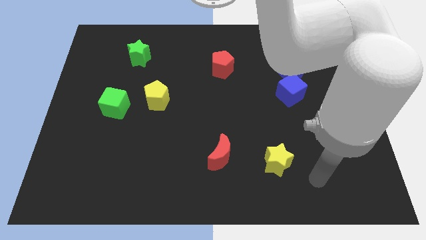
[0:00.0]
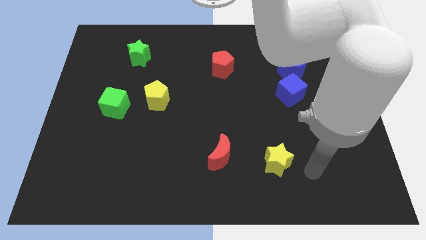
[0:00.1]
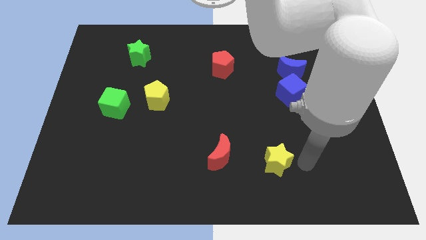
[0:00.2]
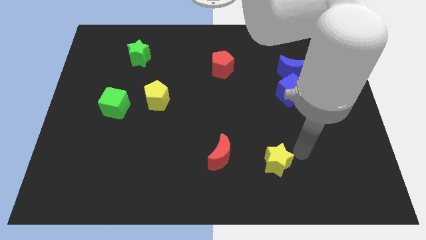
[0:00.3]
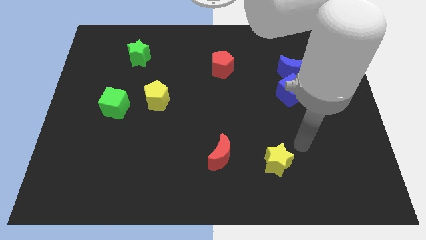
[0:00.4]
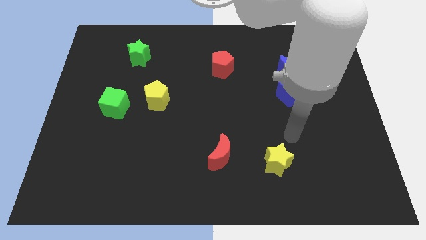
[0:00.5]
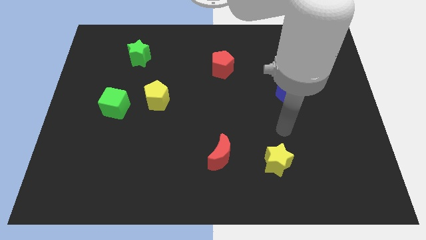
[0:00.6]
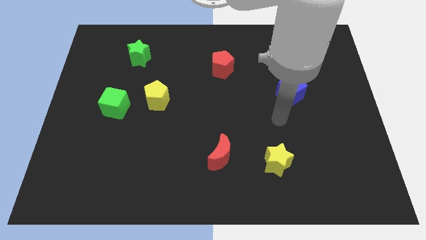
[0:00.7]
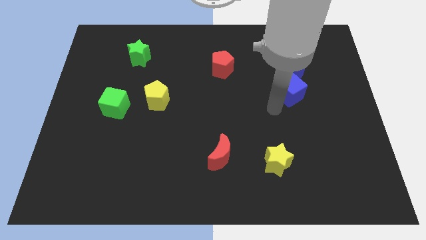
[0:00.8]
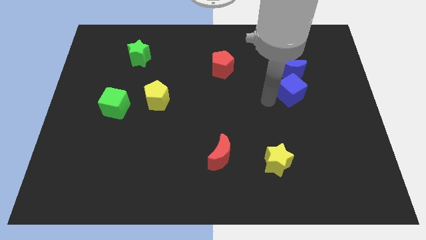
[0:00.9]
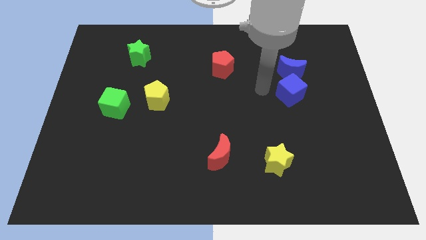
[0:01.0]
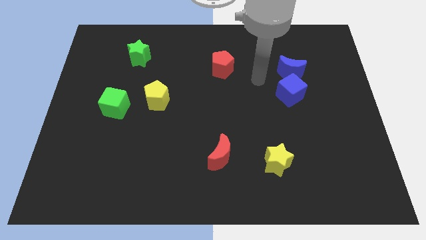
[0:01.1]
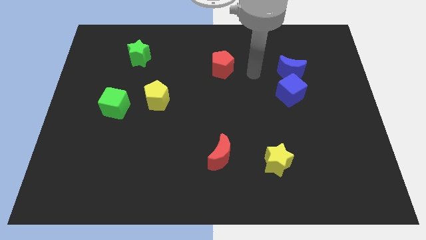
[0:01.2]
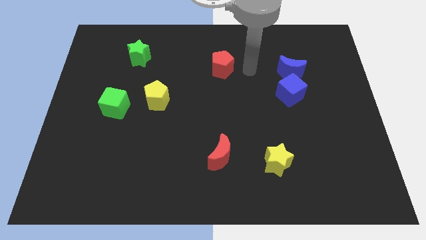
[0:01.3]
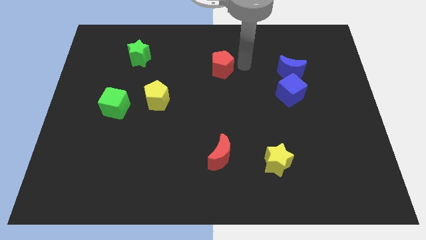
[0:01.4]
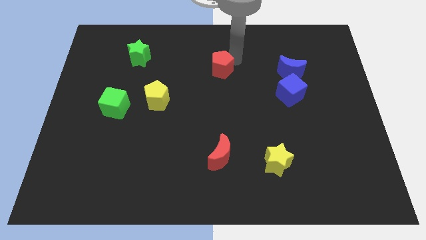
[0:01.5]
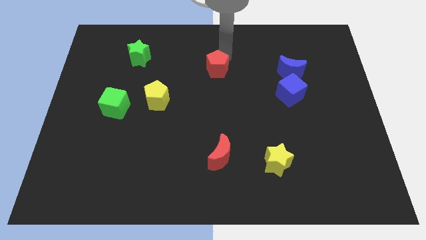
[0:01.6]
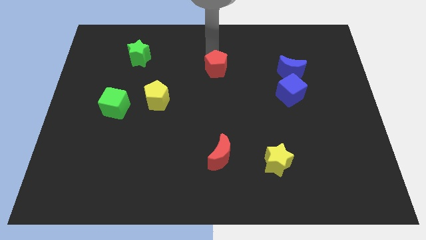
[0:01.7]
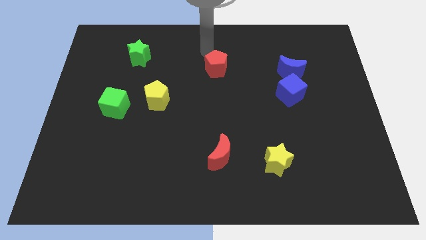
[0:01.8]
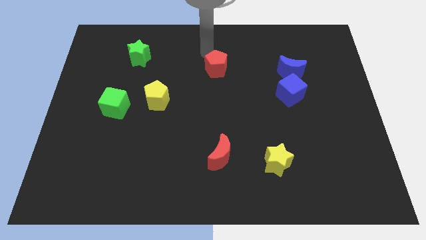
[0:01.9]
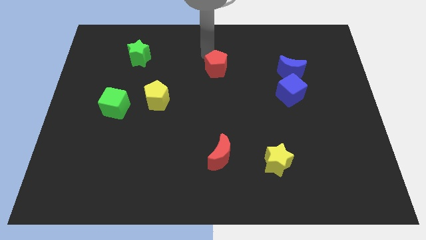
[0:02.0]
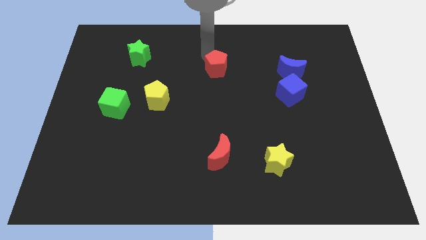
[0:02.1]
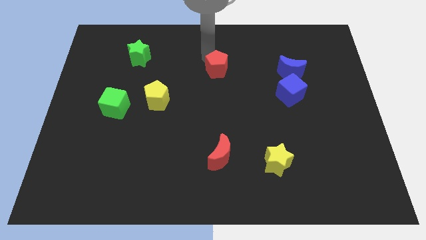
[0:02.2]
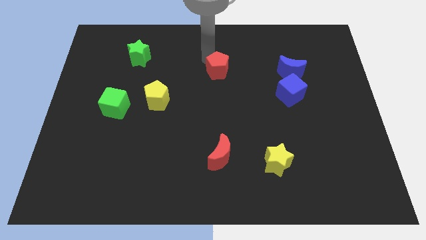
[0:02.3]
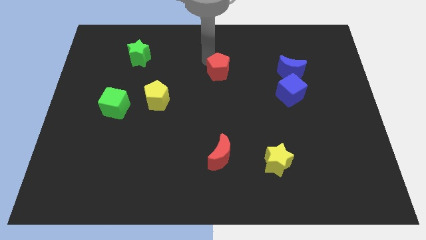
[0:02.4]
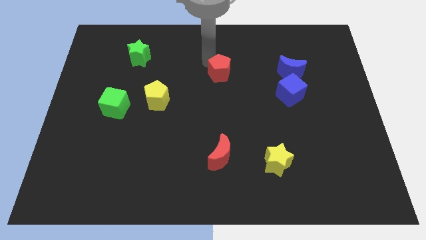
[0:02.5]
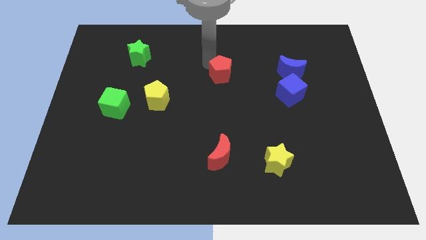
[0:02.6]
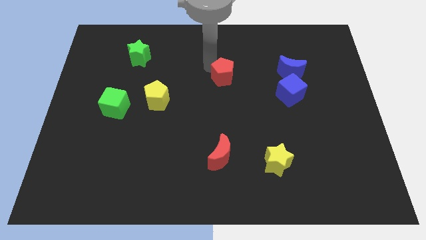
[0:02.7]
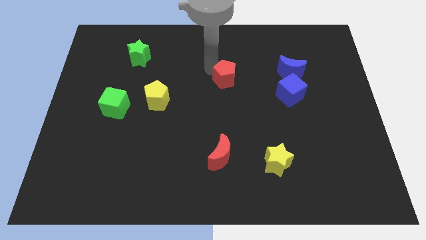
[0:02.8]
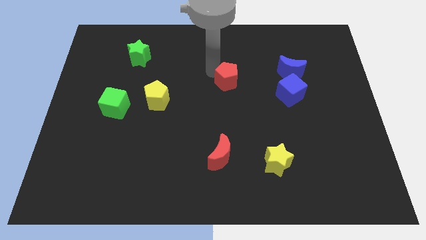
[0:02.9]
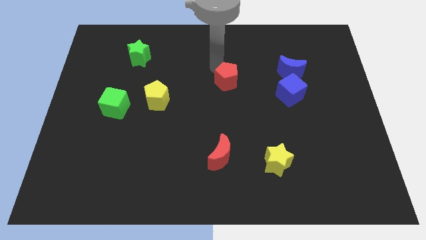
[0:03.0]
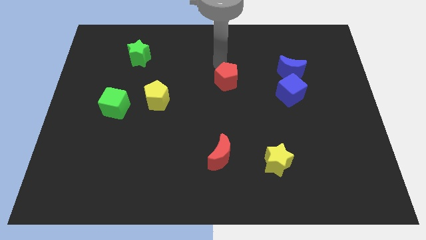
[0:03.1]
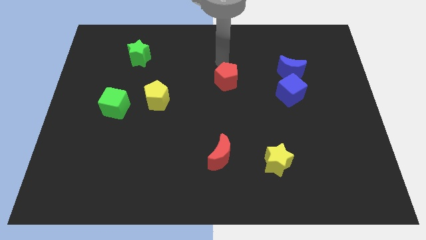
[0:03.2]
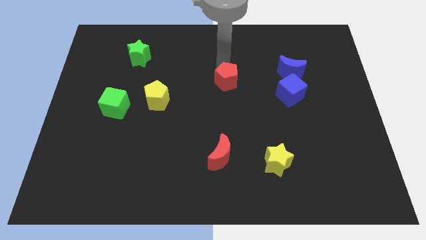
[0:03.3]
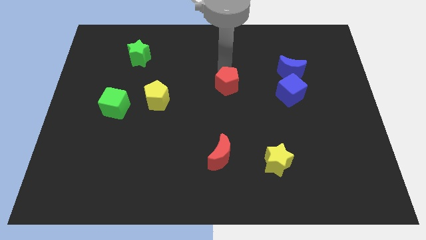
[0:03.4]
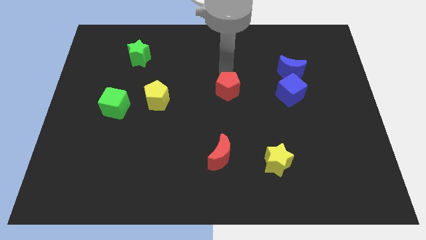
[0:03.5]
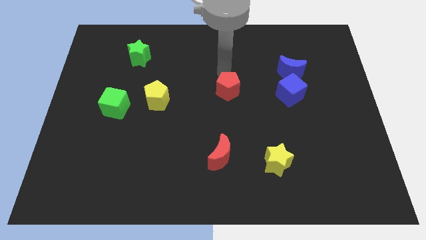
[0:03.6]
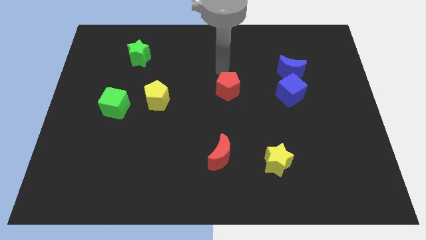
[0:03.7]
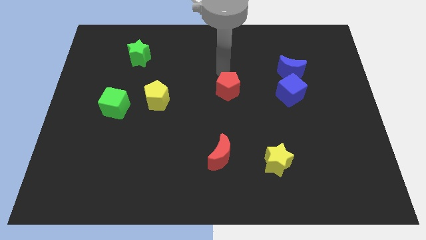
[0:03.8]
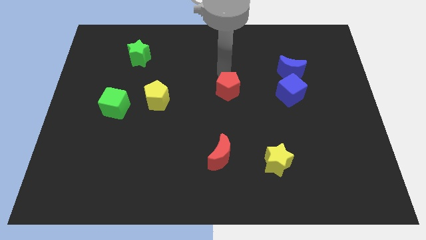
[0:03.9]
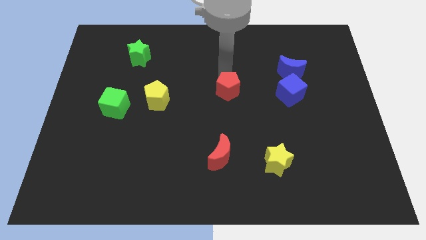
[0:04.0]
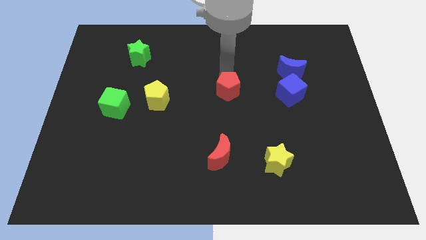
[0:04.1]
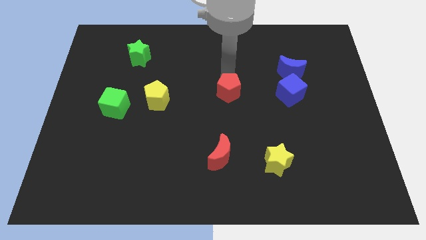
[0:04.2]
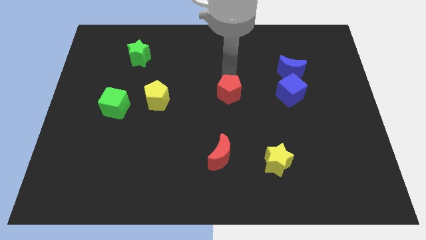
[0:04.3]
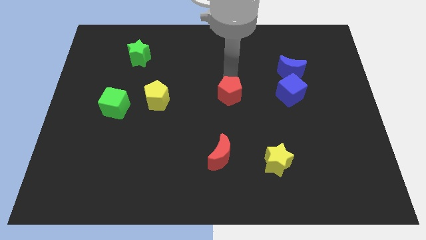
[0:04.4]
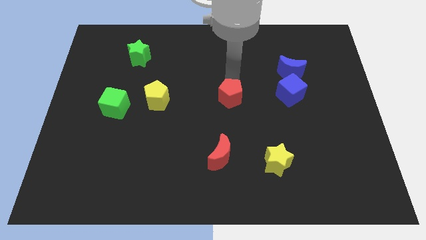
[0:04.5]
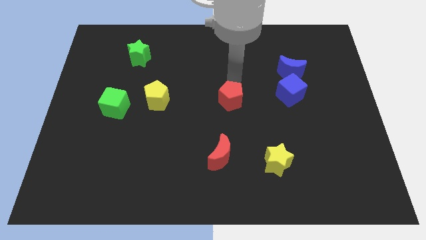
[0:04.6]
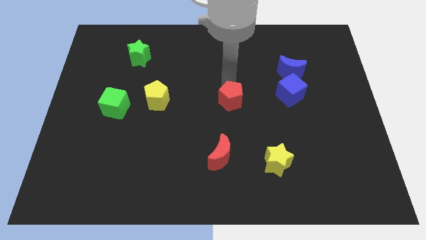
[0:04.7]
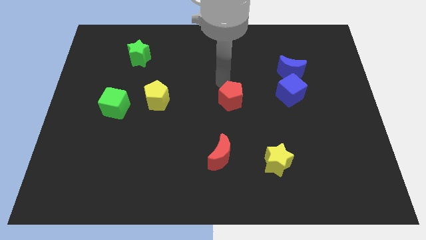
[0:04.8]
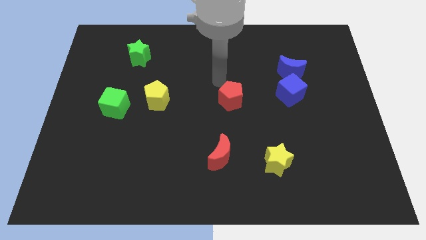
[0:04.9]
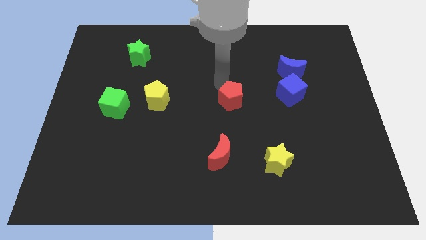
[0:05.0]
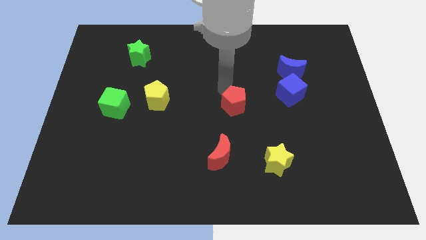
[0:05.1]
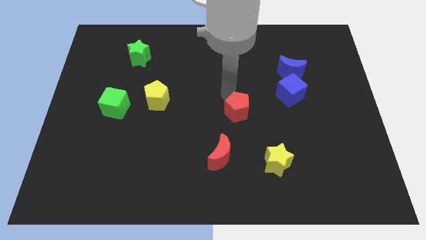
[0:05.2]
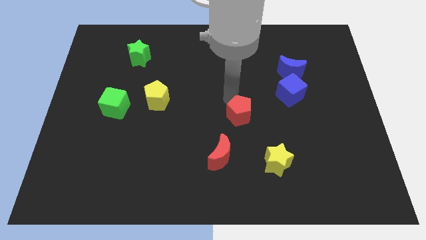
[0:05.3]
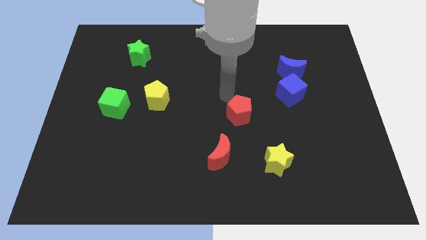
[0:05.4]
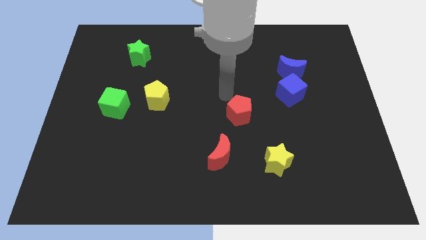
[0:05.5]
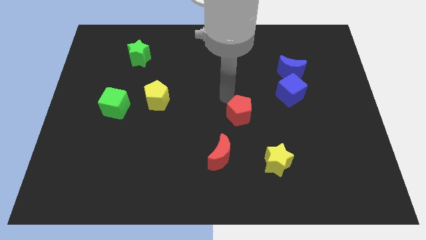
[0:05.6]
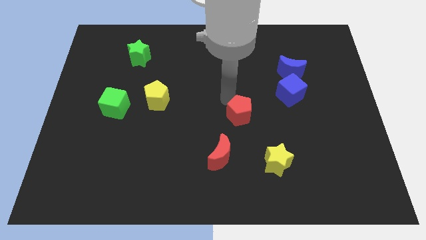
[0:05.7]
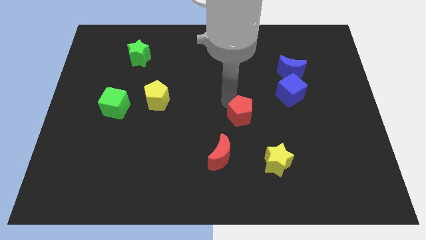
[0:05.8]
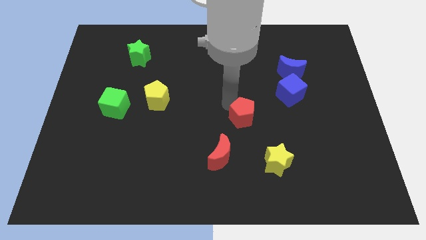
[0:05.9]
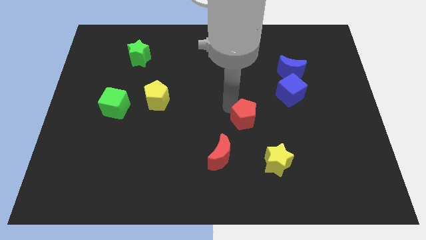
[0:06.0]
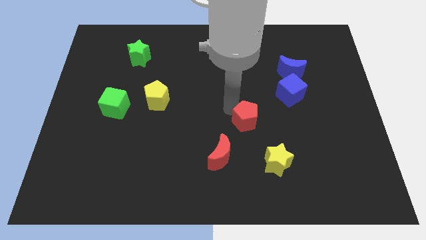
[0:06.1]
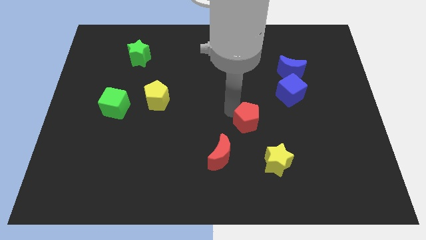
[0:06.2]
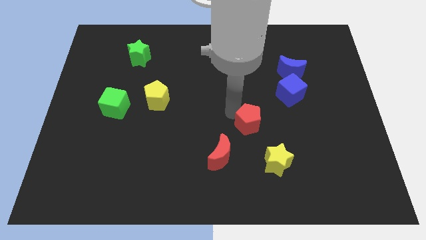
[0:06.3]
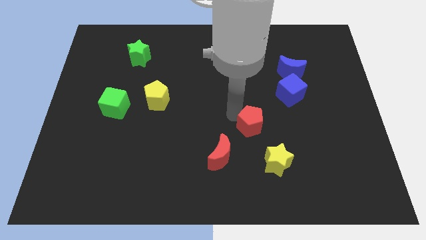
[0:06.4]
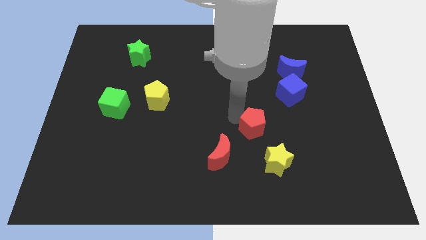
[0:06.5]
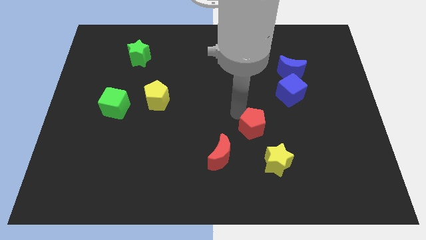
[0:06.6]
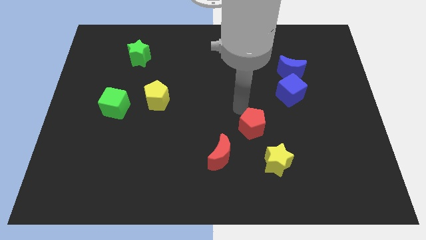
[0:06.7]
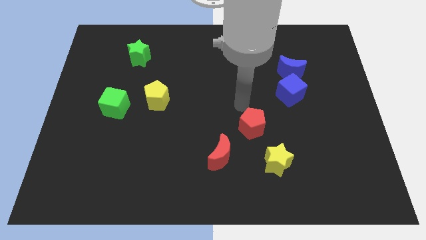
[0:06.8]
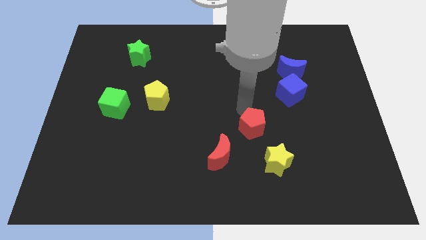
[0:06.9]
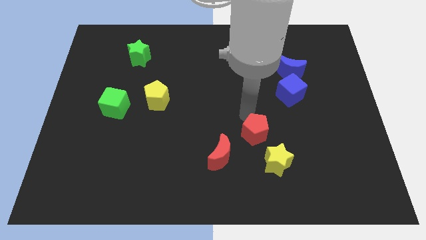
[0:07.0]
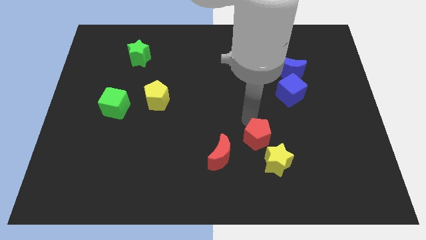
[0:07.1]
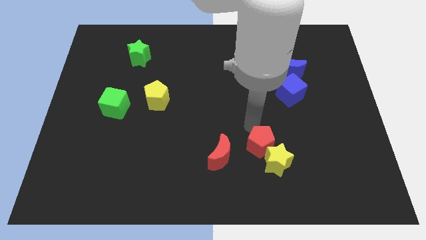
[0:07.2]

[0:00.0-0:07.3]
put the red pentagon towards the yellow star
